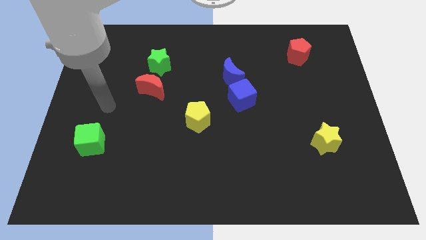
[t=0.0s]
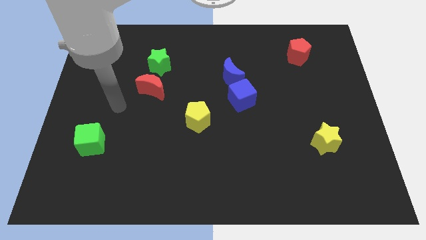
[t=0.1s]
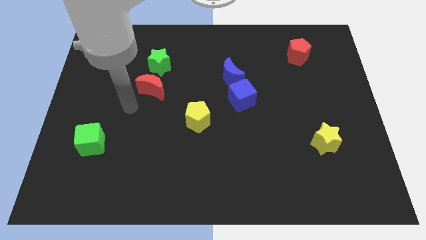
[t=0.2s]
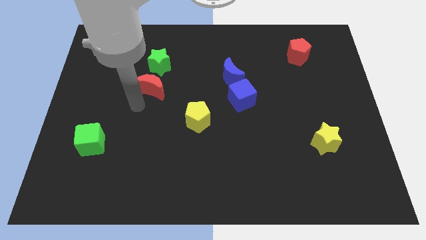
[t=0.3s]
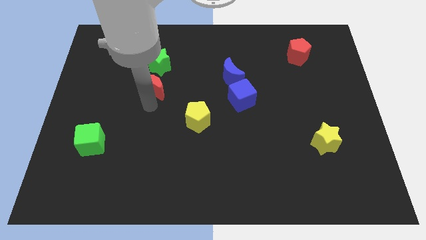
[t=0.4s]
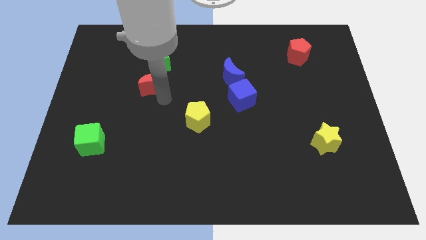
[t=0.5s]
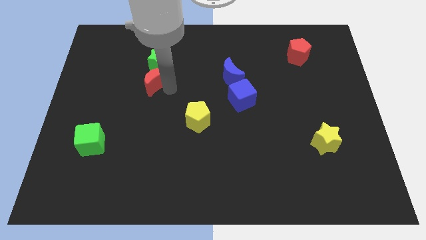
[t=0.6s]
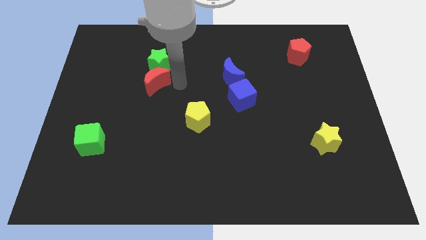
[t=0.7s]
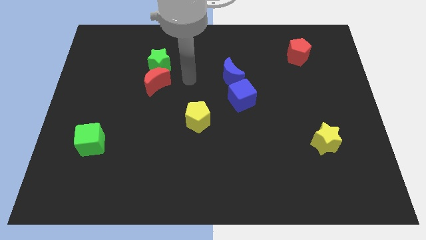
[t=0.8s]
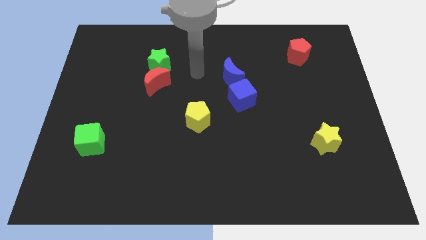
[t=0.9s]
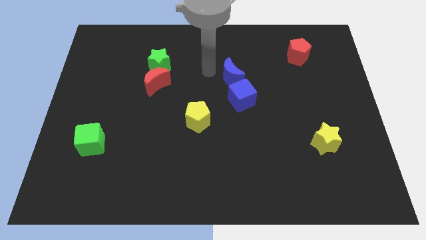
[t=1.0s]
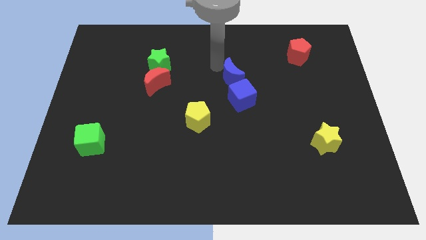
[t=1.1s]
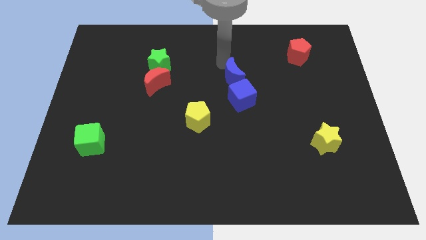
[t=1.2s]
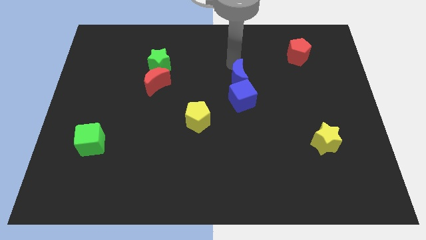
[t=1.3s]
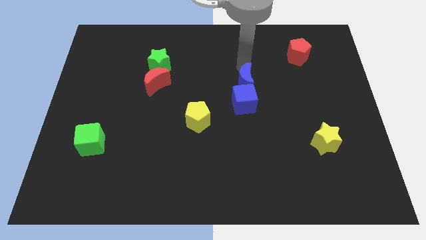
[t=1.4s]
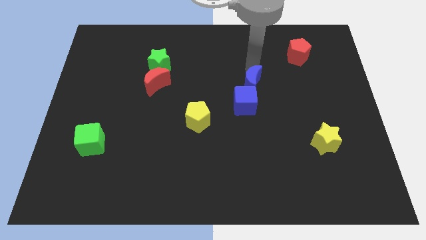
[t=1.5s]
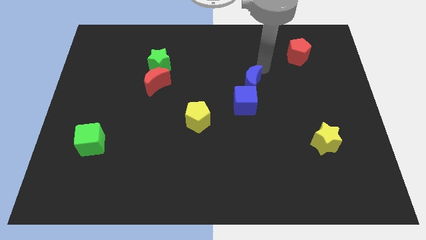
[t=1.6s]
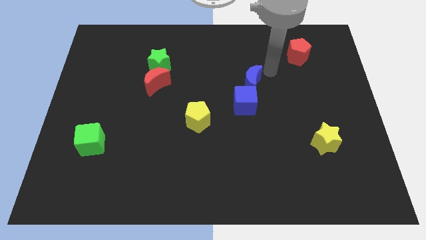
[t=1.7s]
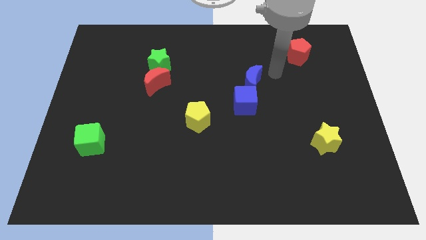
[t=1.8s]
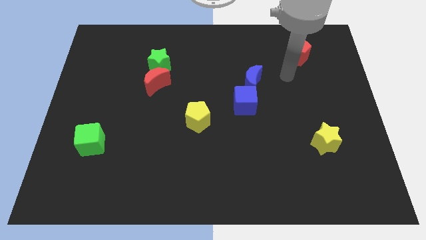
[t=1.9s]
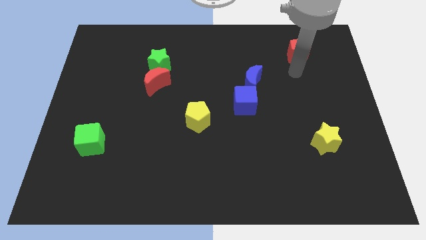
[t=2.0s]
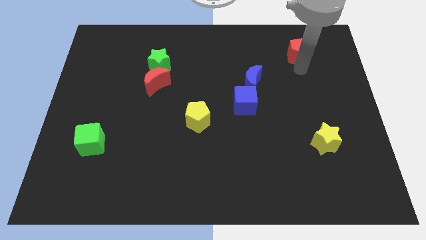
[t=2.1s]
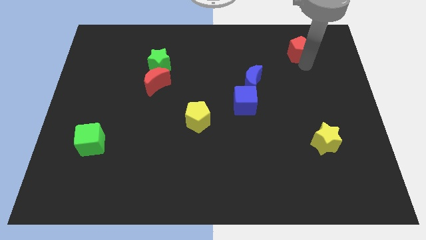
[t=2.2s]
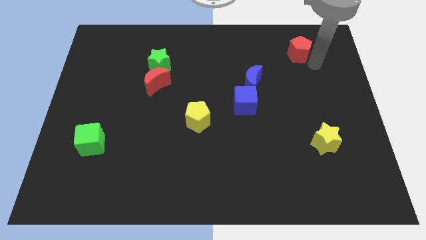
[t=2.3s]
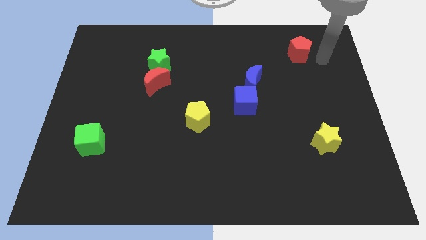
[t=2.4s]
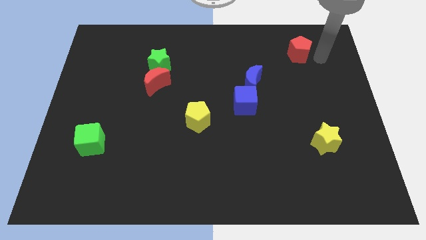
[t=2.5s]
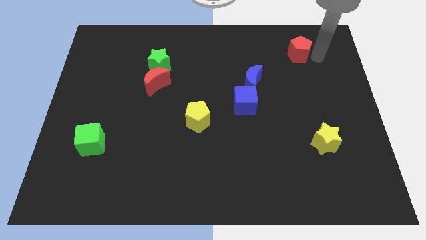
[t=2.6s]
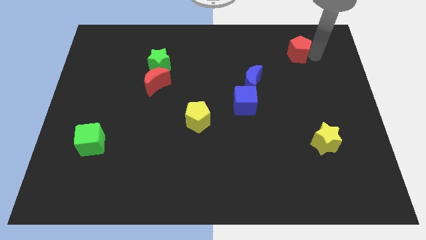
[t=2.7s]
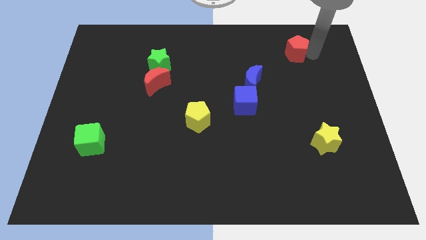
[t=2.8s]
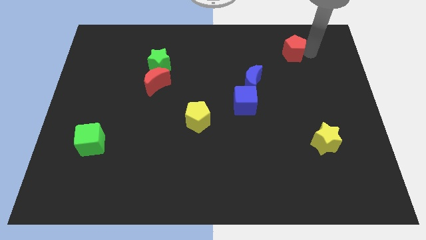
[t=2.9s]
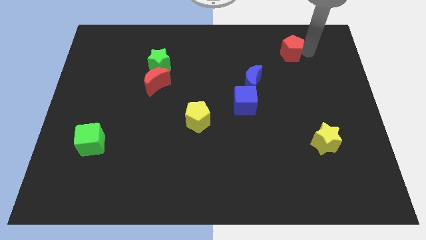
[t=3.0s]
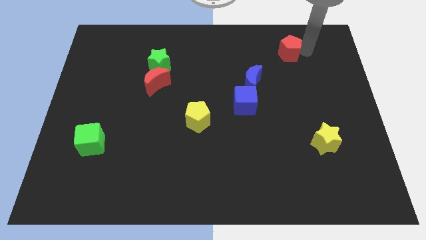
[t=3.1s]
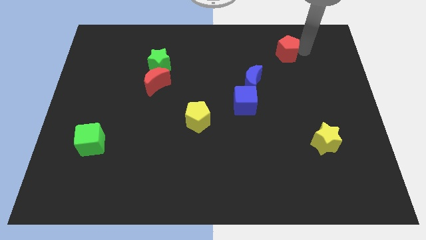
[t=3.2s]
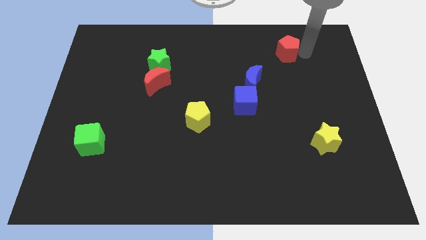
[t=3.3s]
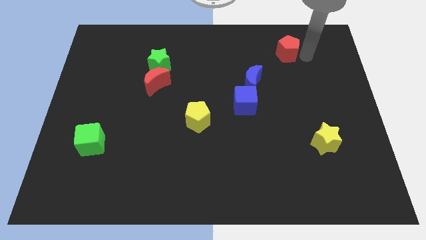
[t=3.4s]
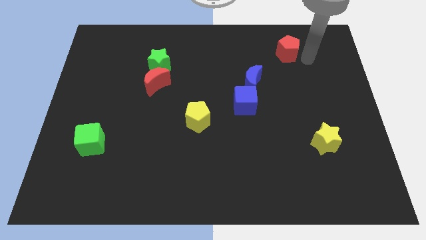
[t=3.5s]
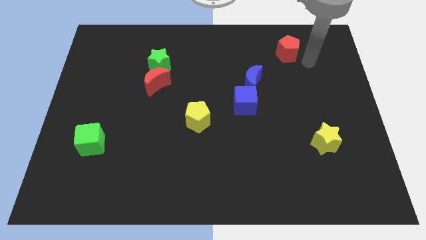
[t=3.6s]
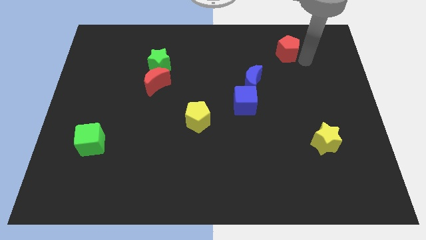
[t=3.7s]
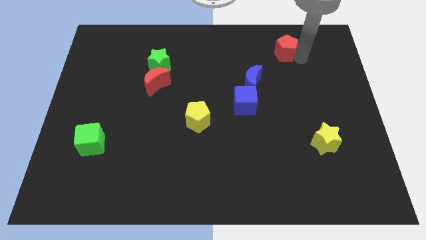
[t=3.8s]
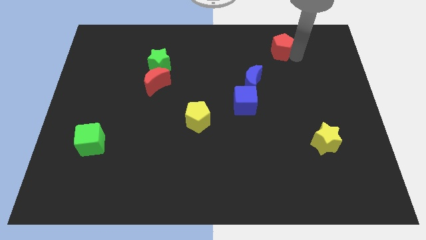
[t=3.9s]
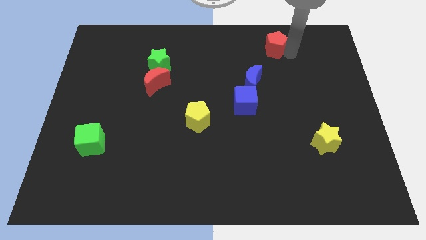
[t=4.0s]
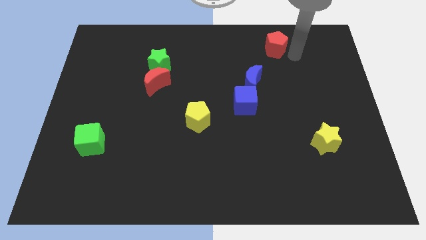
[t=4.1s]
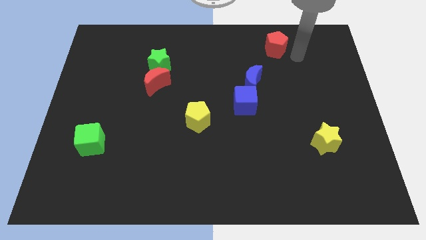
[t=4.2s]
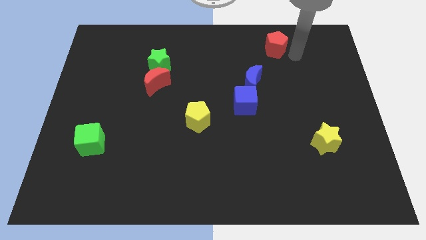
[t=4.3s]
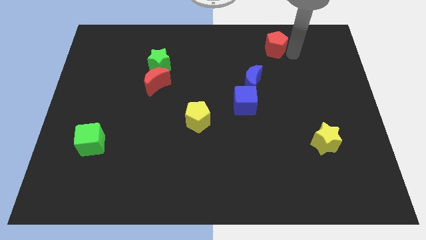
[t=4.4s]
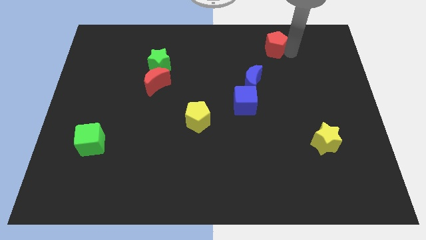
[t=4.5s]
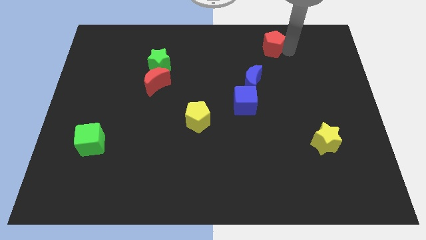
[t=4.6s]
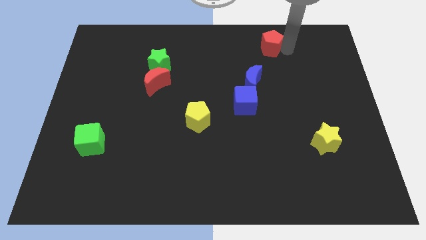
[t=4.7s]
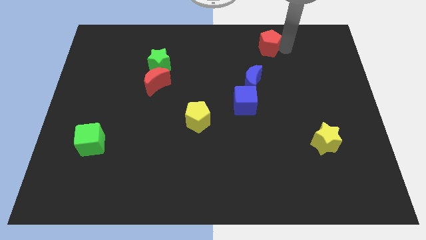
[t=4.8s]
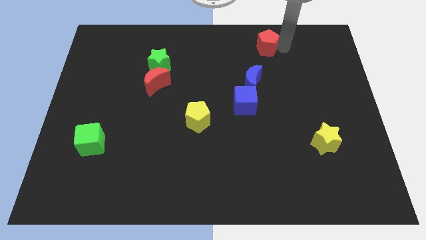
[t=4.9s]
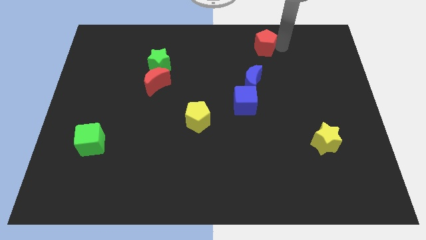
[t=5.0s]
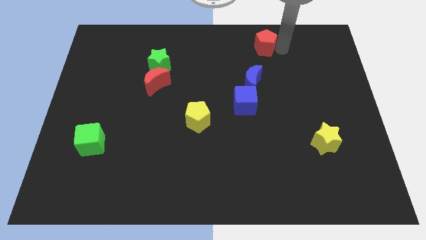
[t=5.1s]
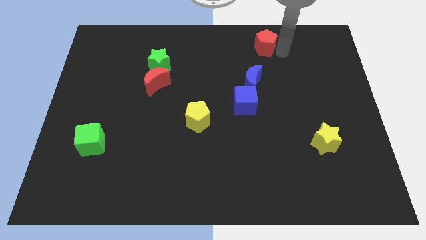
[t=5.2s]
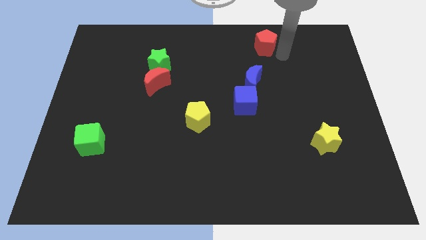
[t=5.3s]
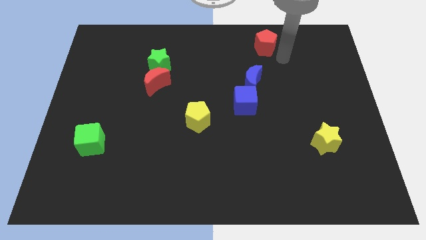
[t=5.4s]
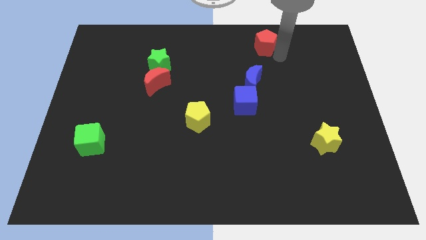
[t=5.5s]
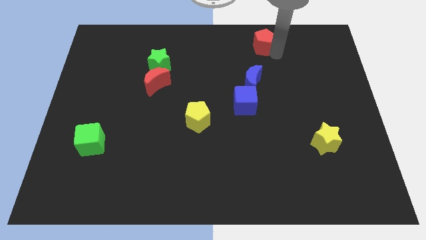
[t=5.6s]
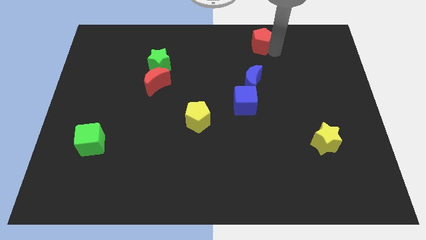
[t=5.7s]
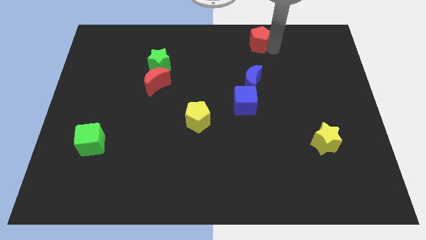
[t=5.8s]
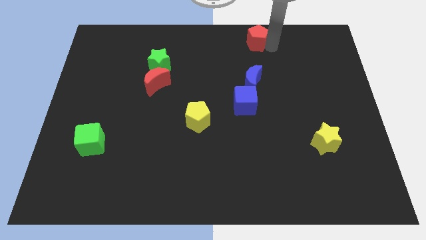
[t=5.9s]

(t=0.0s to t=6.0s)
put the red pentagon to the top side

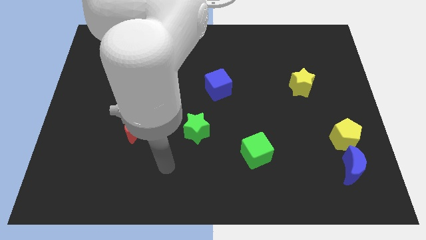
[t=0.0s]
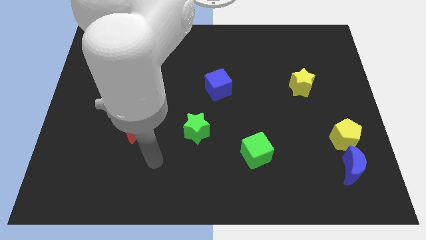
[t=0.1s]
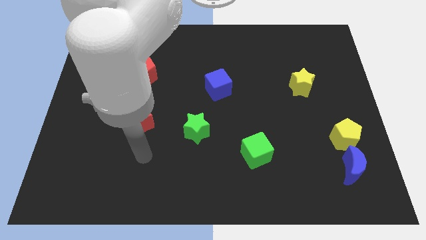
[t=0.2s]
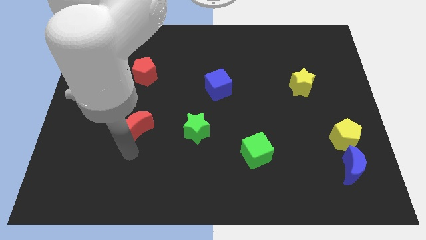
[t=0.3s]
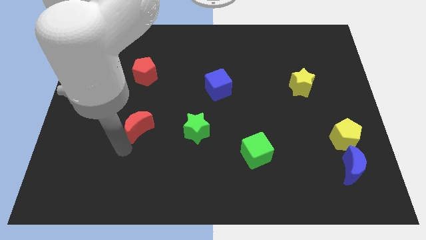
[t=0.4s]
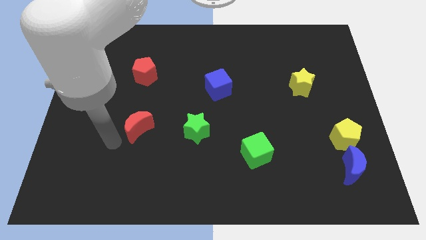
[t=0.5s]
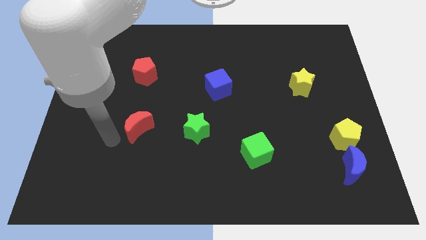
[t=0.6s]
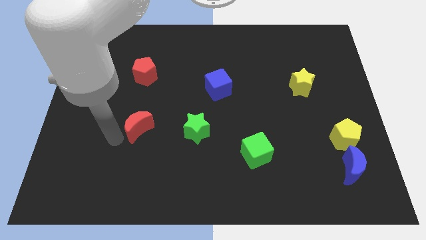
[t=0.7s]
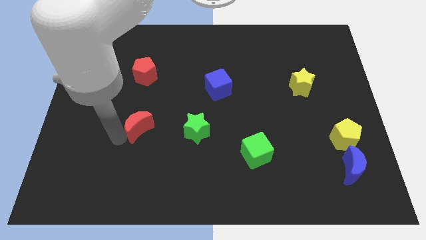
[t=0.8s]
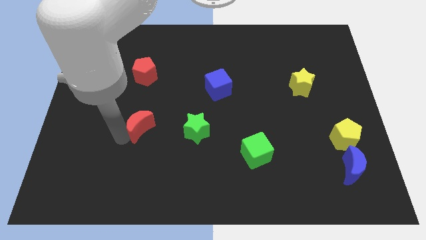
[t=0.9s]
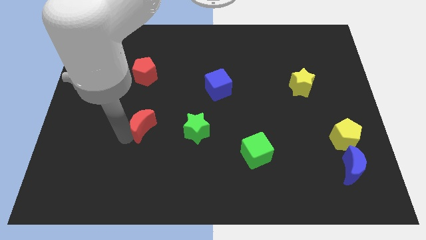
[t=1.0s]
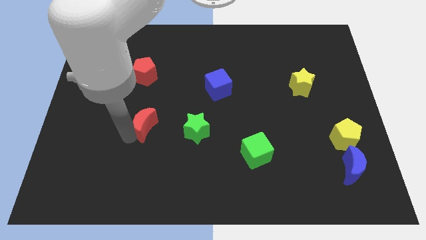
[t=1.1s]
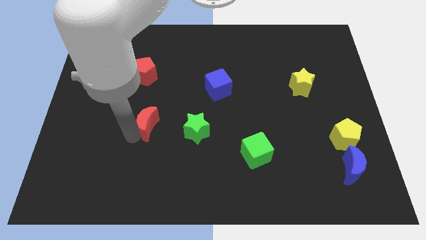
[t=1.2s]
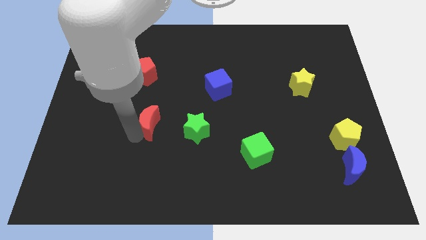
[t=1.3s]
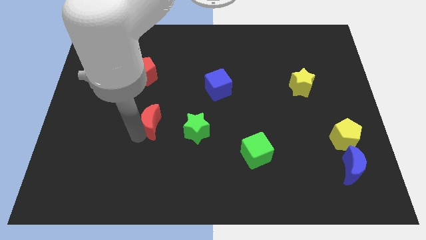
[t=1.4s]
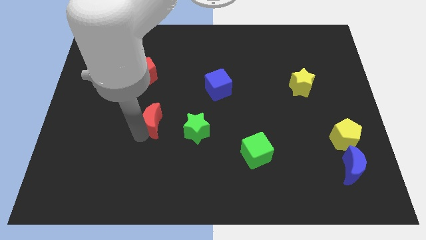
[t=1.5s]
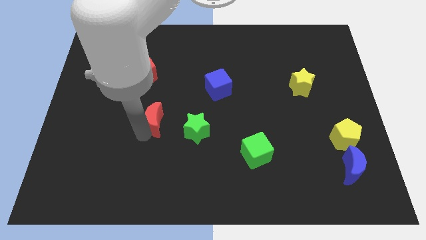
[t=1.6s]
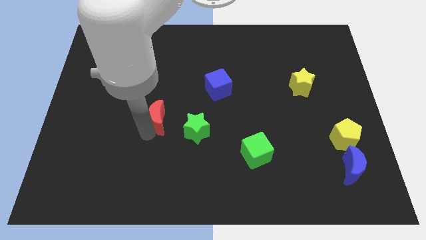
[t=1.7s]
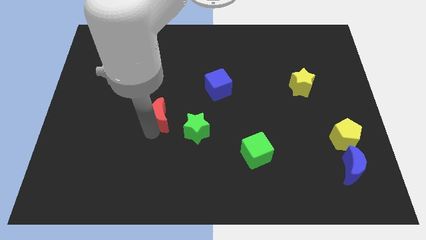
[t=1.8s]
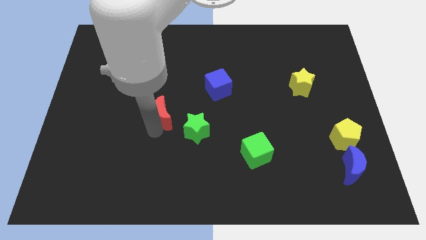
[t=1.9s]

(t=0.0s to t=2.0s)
put the red moon to the center
